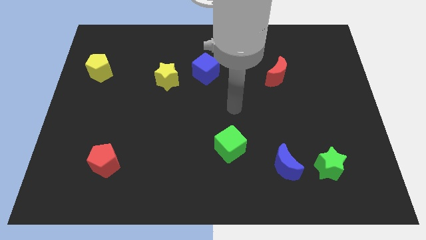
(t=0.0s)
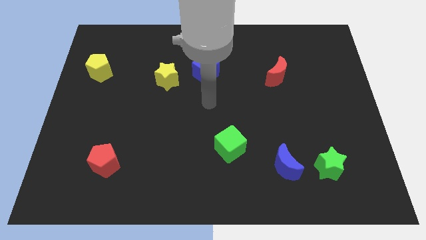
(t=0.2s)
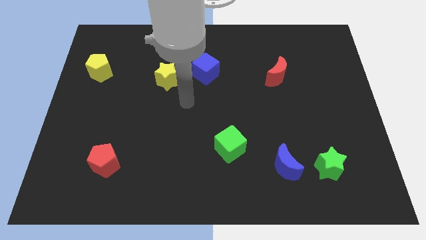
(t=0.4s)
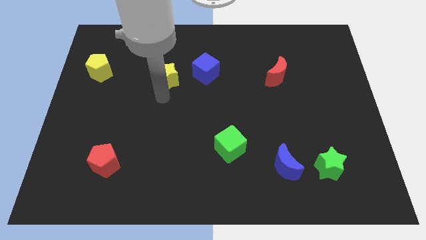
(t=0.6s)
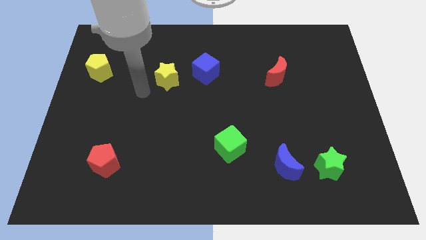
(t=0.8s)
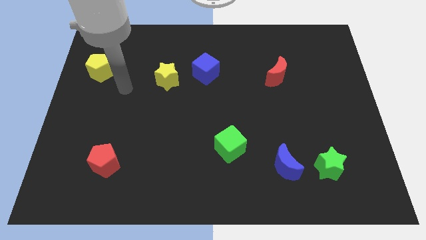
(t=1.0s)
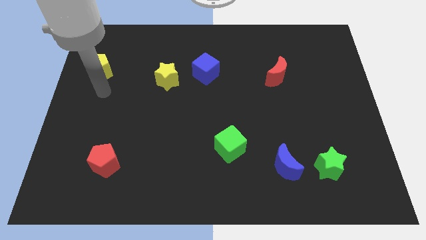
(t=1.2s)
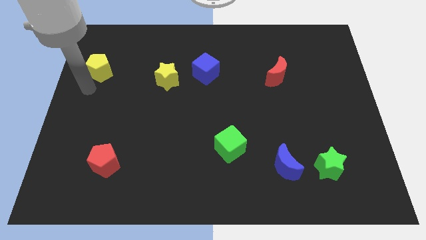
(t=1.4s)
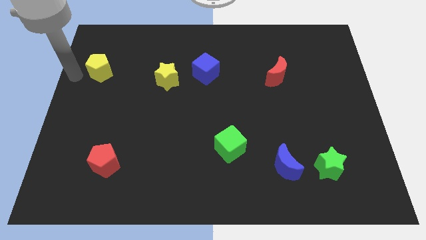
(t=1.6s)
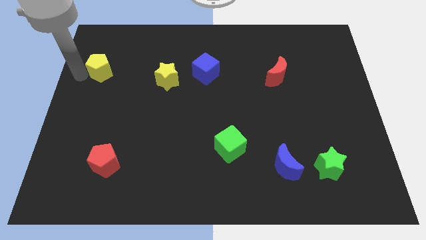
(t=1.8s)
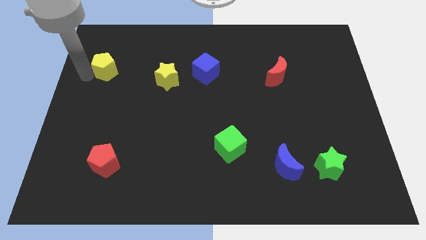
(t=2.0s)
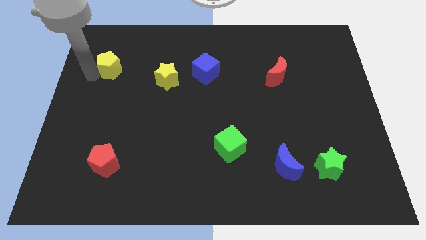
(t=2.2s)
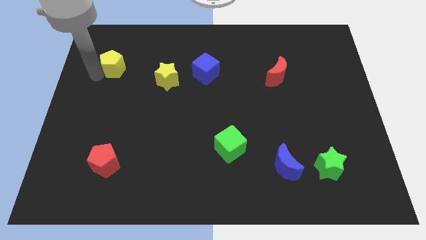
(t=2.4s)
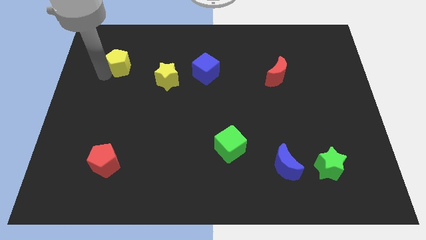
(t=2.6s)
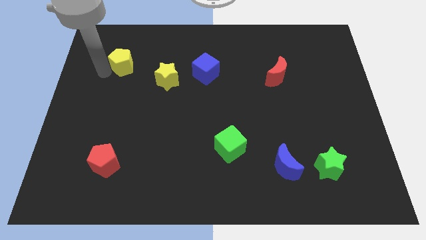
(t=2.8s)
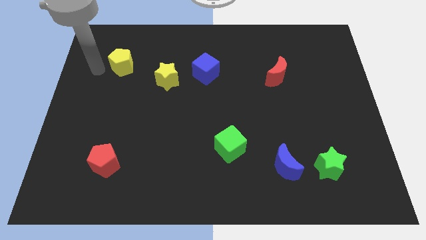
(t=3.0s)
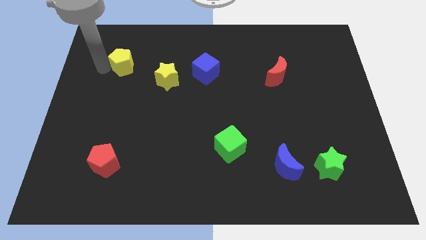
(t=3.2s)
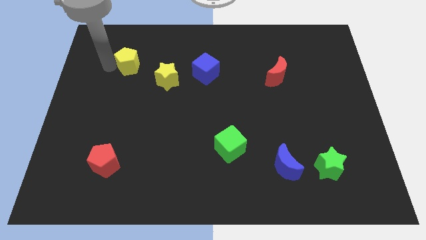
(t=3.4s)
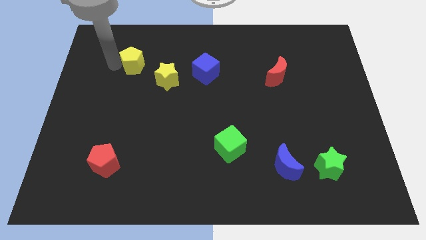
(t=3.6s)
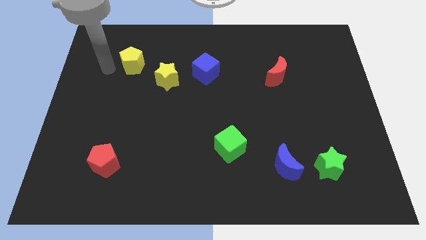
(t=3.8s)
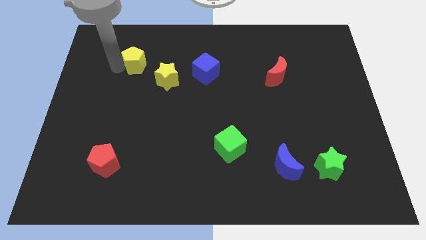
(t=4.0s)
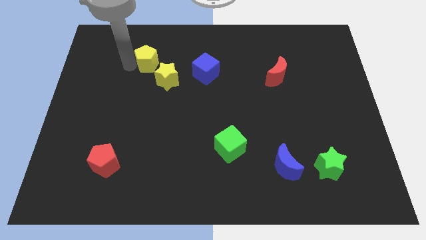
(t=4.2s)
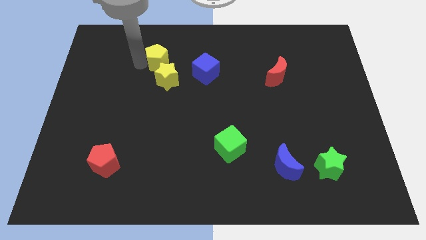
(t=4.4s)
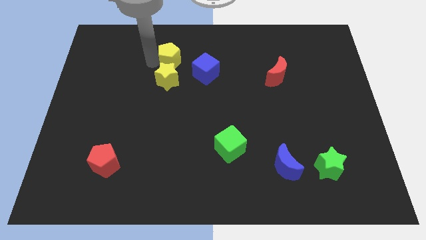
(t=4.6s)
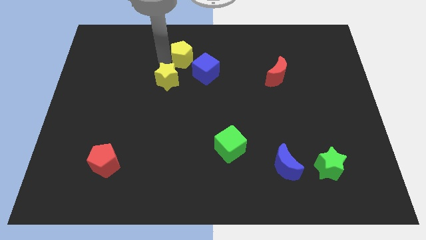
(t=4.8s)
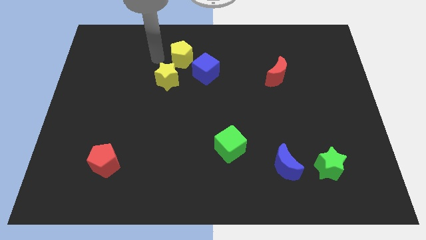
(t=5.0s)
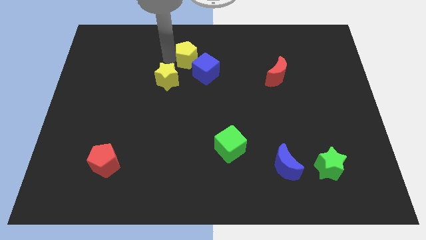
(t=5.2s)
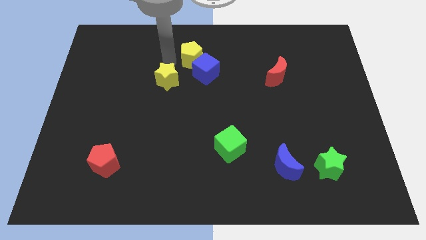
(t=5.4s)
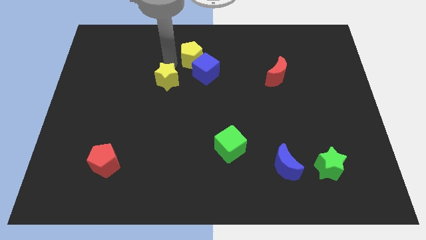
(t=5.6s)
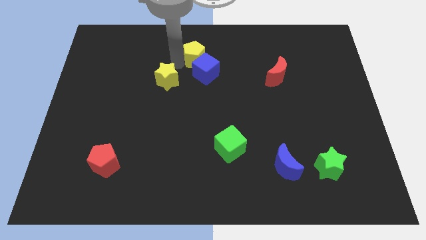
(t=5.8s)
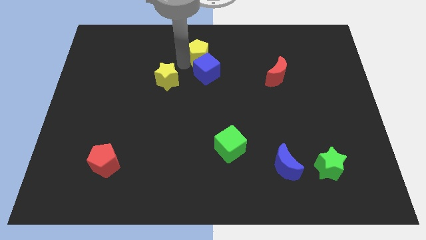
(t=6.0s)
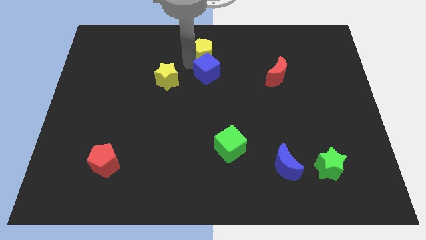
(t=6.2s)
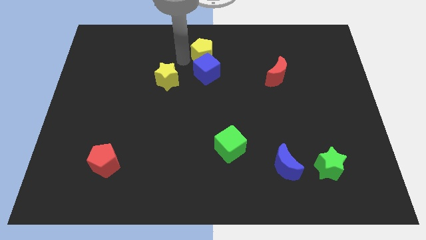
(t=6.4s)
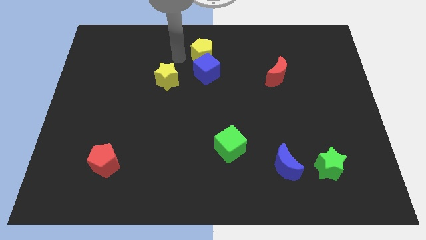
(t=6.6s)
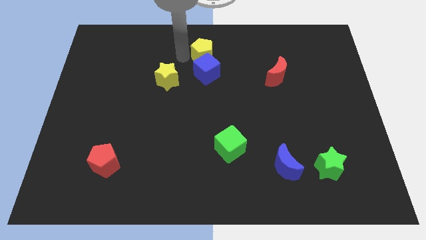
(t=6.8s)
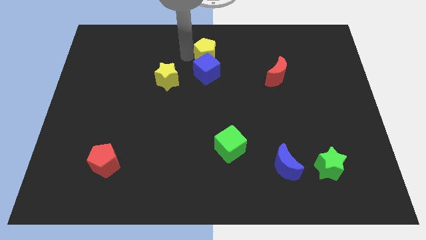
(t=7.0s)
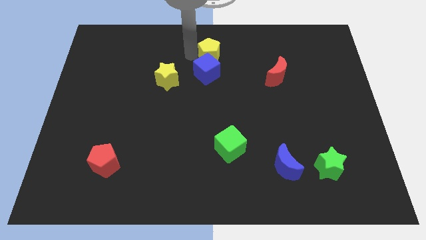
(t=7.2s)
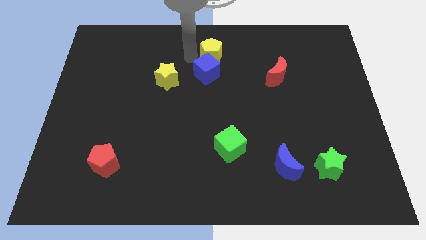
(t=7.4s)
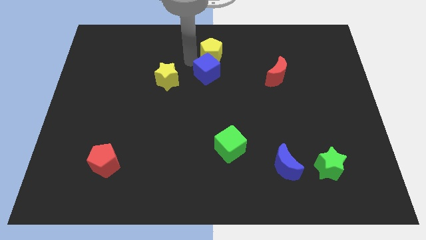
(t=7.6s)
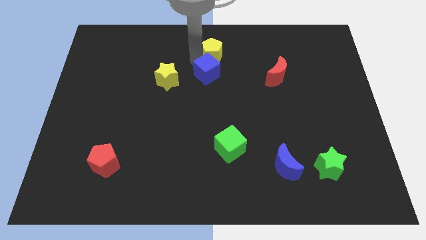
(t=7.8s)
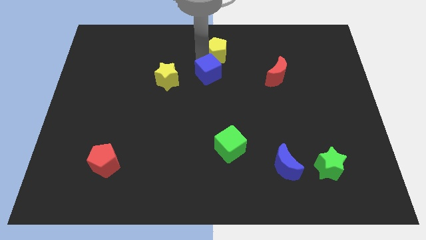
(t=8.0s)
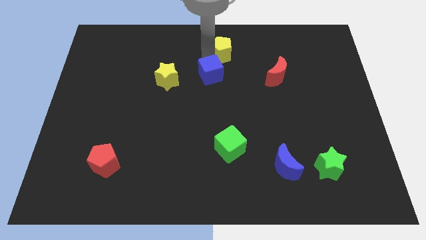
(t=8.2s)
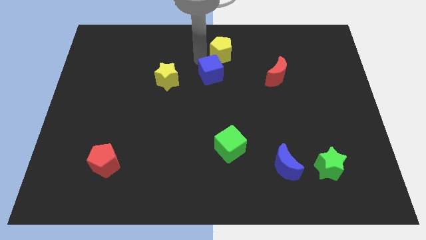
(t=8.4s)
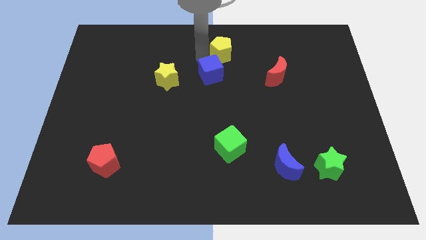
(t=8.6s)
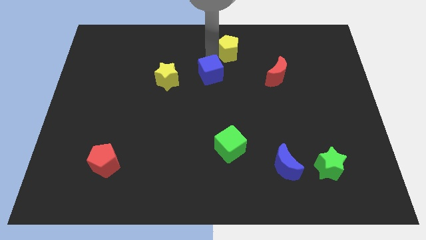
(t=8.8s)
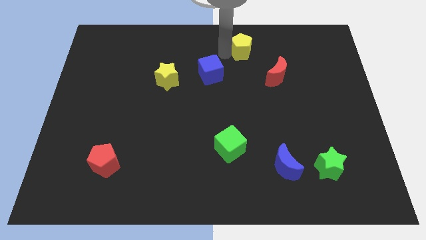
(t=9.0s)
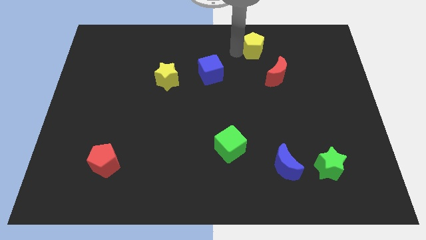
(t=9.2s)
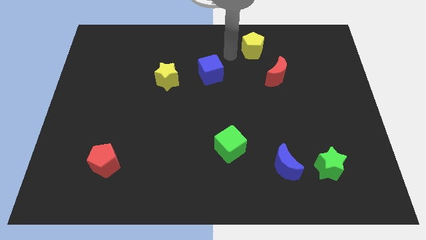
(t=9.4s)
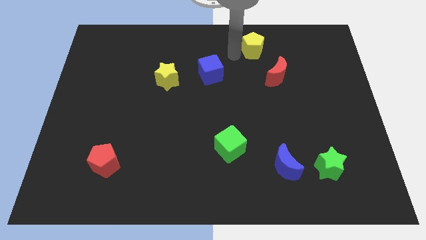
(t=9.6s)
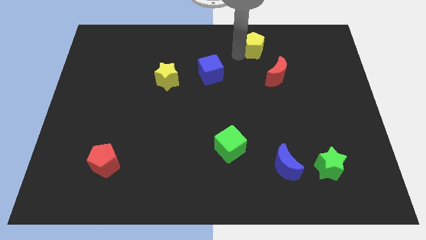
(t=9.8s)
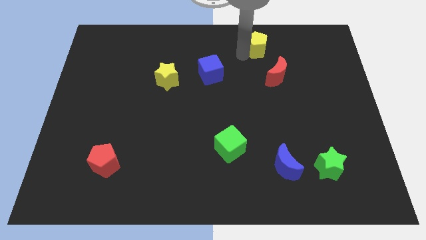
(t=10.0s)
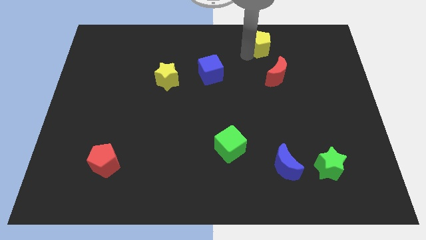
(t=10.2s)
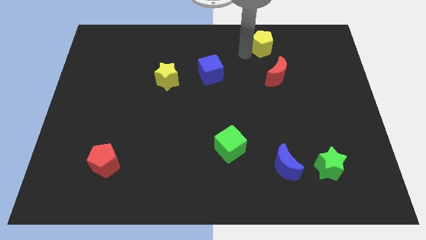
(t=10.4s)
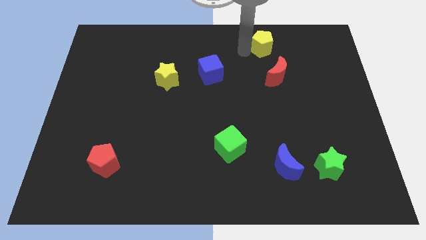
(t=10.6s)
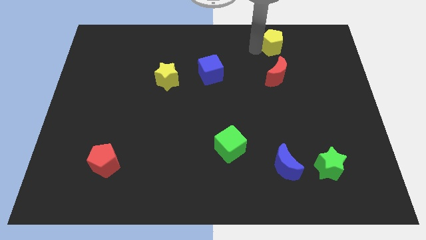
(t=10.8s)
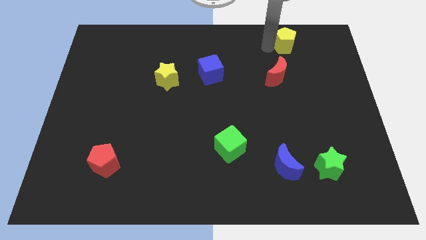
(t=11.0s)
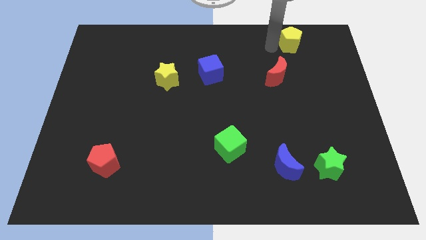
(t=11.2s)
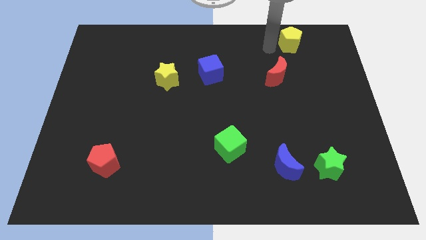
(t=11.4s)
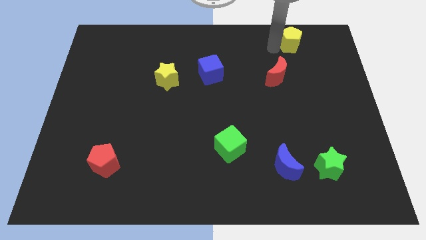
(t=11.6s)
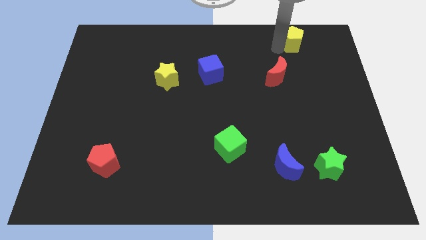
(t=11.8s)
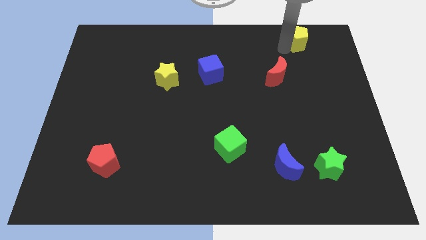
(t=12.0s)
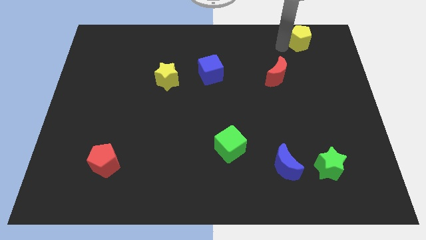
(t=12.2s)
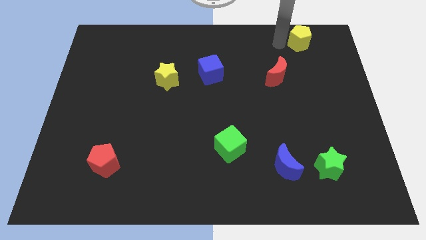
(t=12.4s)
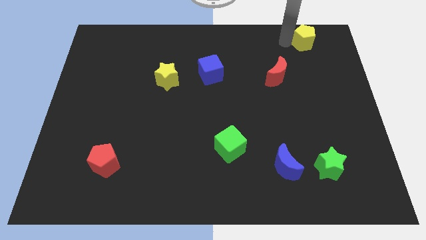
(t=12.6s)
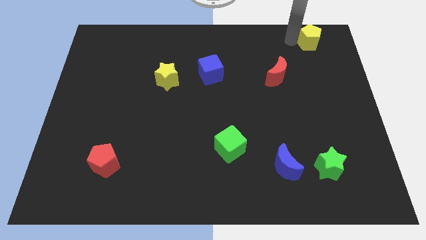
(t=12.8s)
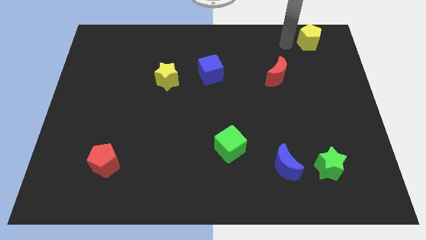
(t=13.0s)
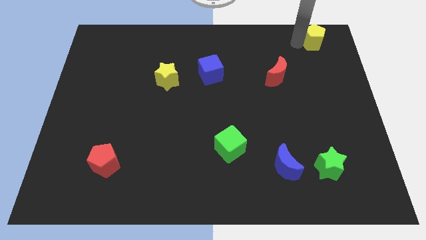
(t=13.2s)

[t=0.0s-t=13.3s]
move the yellow pentagon to the top right of the board

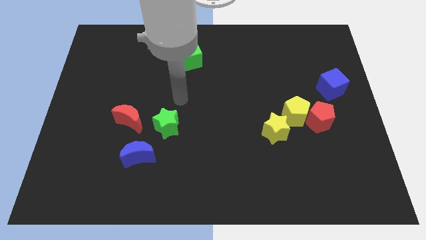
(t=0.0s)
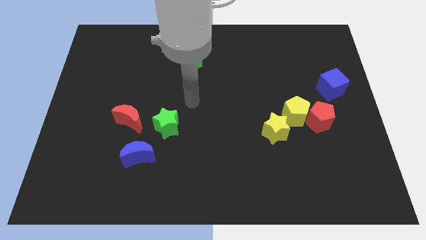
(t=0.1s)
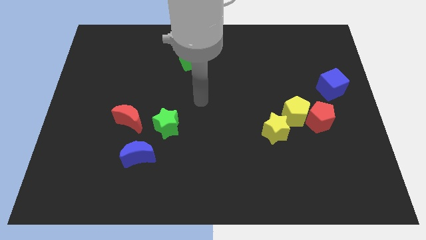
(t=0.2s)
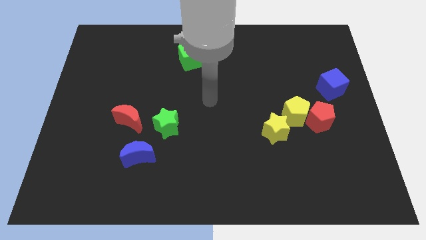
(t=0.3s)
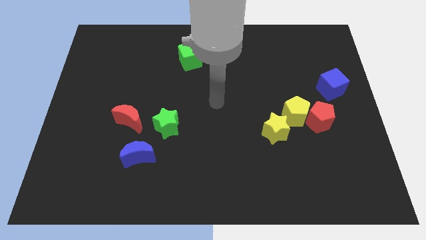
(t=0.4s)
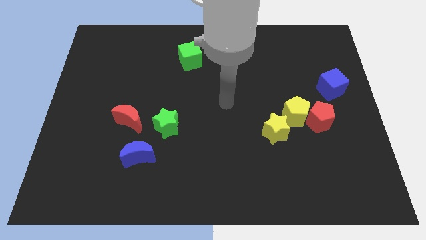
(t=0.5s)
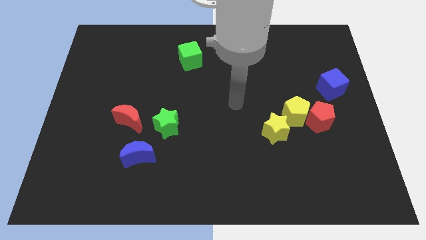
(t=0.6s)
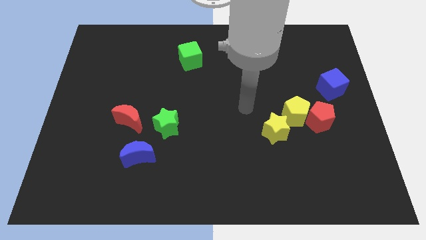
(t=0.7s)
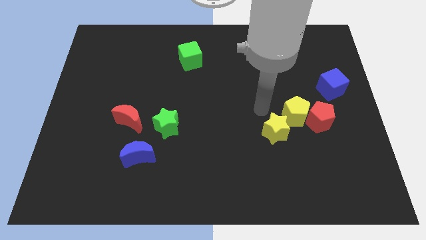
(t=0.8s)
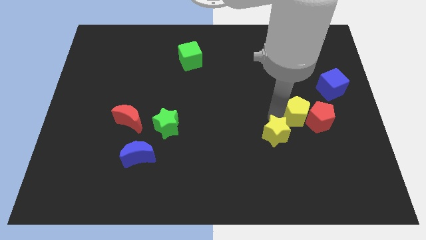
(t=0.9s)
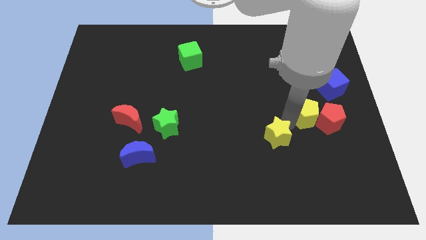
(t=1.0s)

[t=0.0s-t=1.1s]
move the red pentagon to the right side of the board
